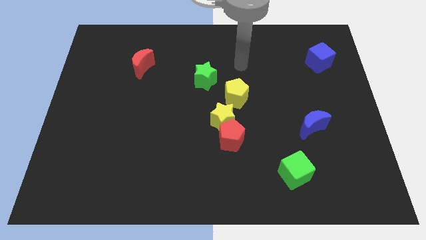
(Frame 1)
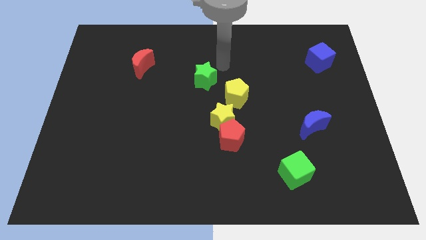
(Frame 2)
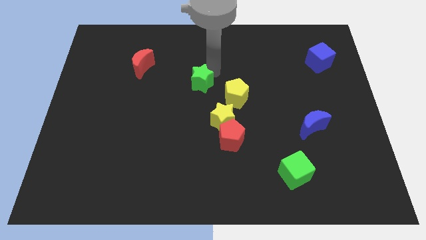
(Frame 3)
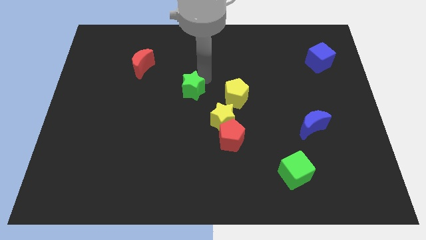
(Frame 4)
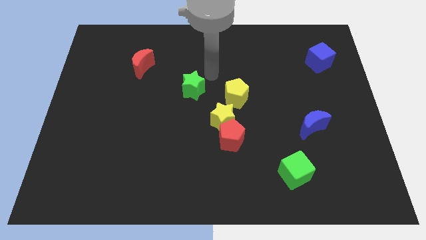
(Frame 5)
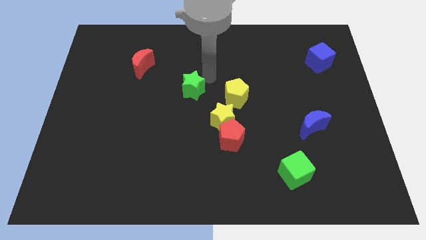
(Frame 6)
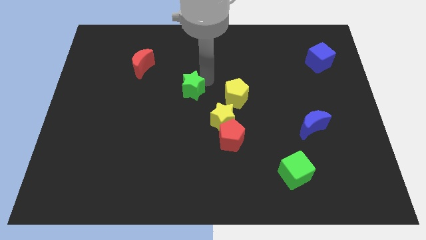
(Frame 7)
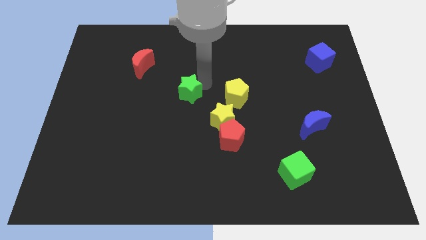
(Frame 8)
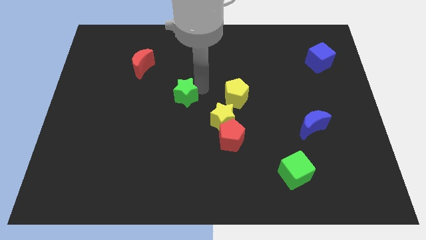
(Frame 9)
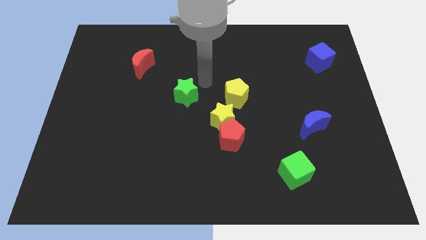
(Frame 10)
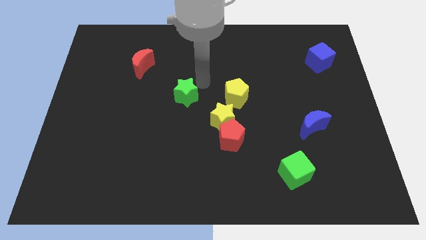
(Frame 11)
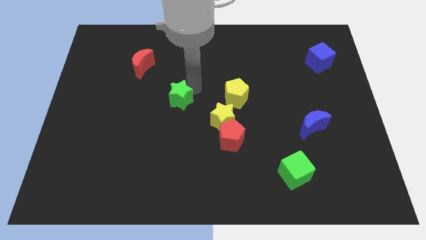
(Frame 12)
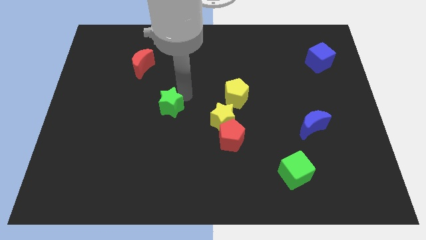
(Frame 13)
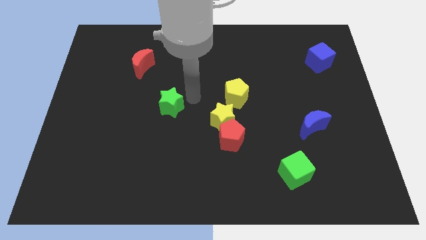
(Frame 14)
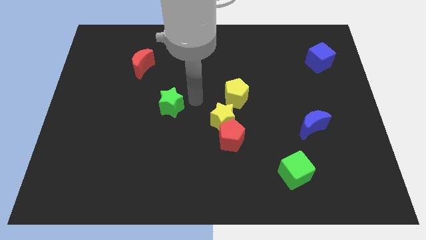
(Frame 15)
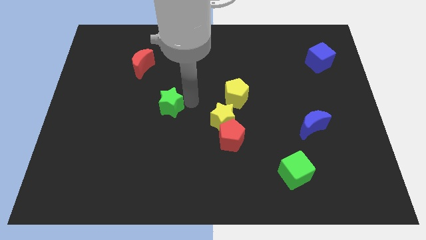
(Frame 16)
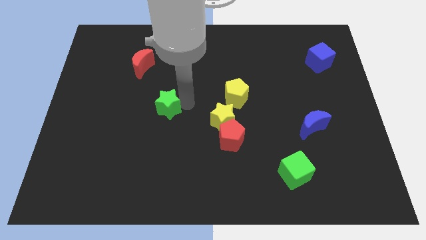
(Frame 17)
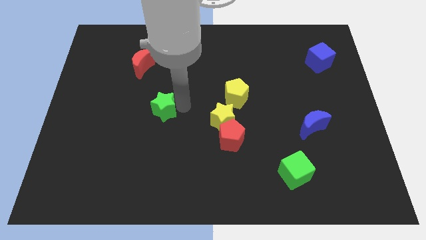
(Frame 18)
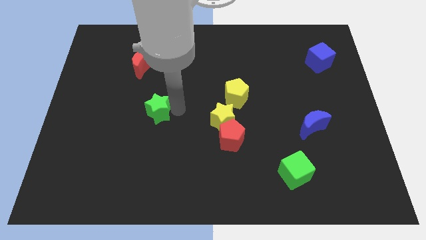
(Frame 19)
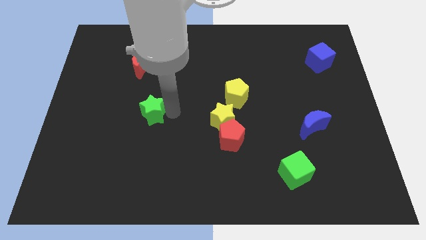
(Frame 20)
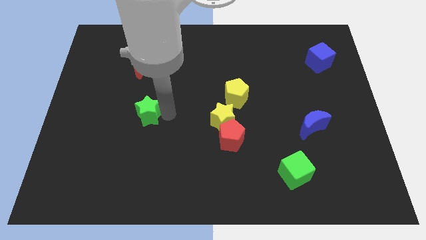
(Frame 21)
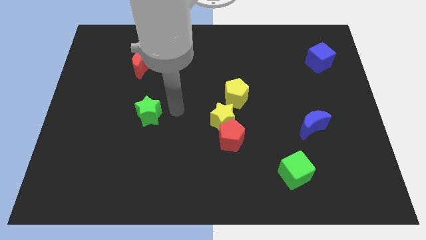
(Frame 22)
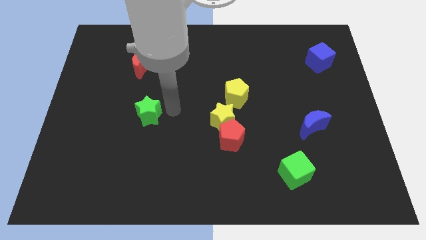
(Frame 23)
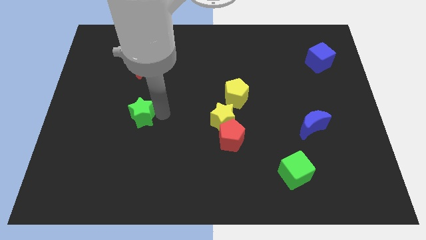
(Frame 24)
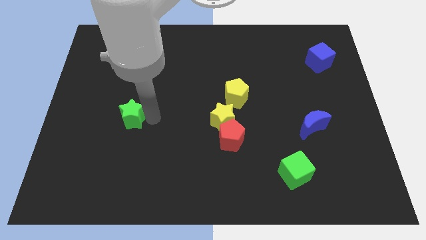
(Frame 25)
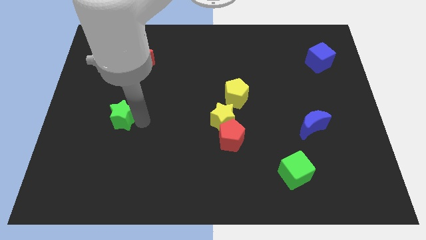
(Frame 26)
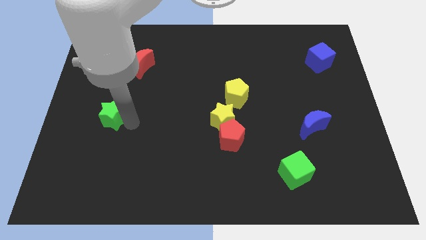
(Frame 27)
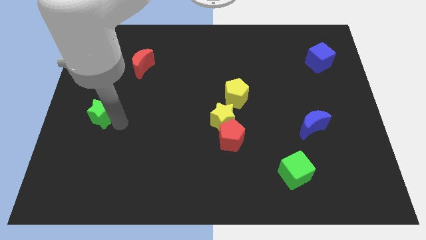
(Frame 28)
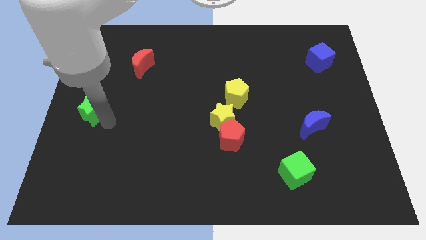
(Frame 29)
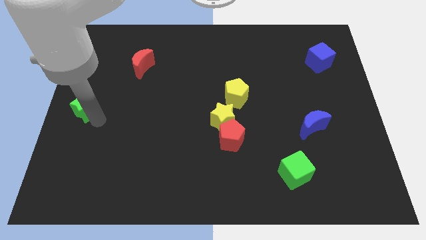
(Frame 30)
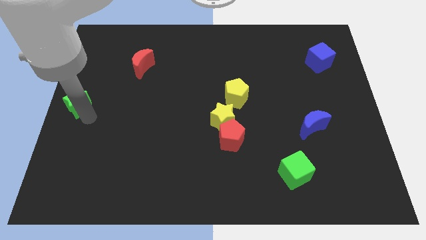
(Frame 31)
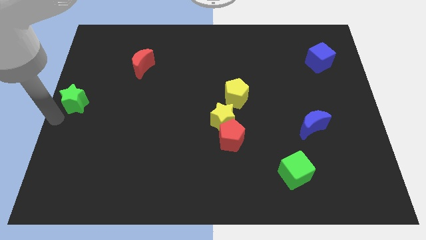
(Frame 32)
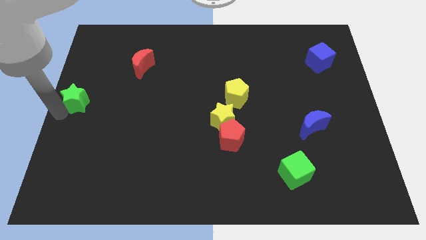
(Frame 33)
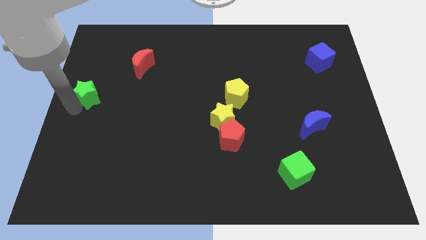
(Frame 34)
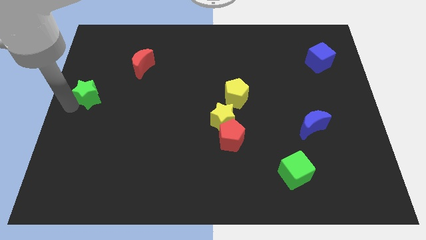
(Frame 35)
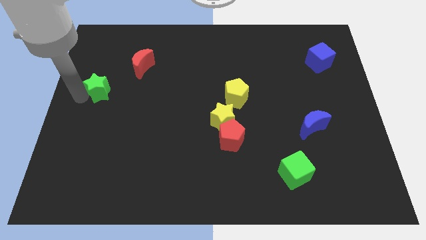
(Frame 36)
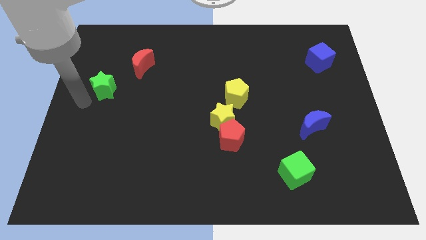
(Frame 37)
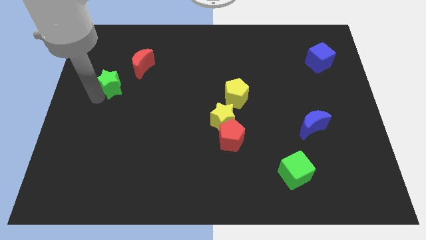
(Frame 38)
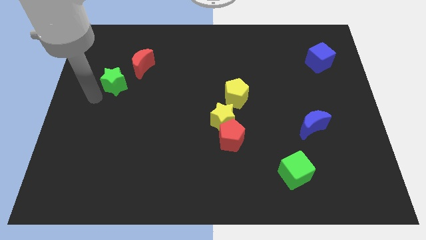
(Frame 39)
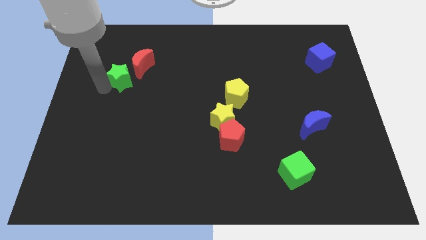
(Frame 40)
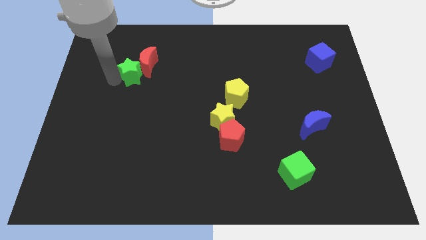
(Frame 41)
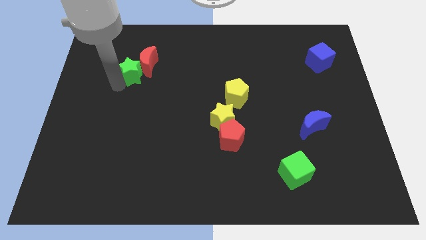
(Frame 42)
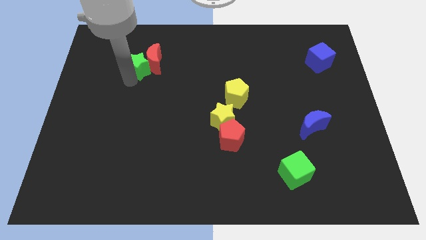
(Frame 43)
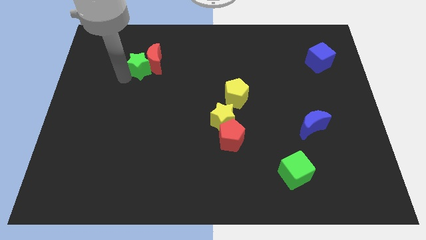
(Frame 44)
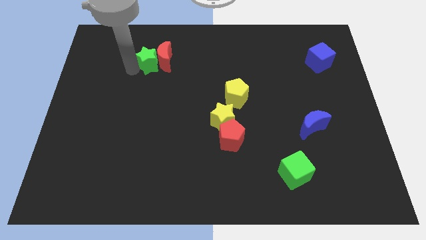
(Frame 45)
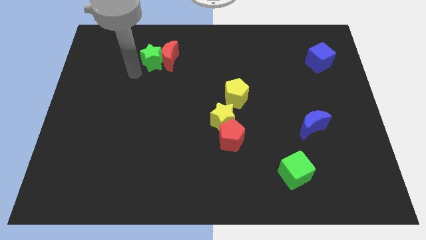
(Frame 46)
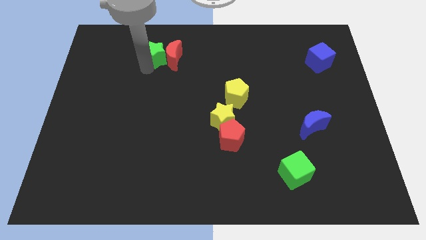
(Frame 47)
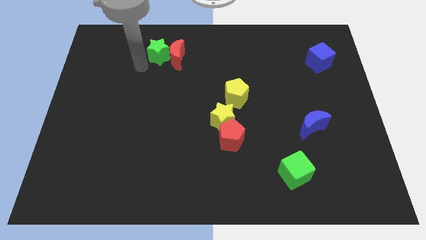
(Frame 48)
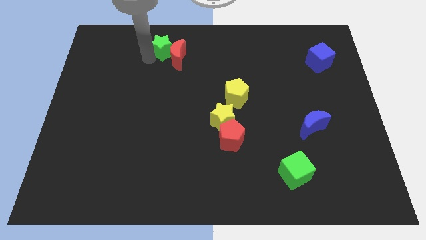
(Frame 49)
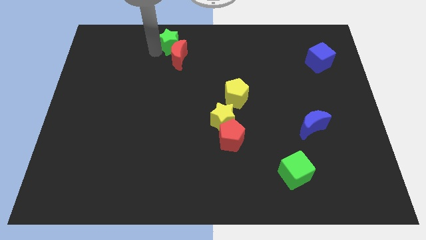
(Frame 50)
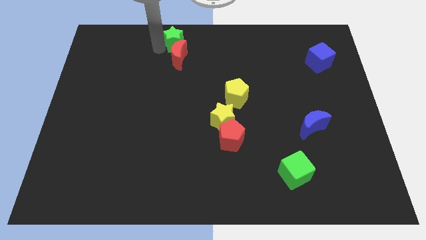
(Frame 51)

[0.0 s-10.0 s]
slide the green star to the top side

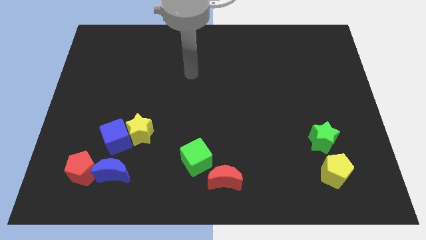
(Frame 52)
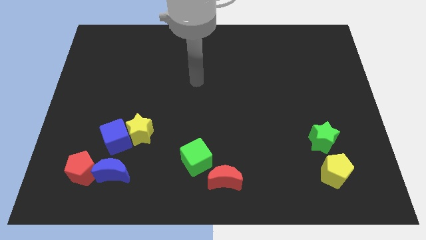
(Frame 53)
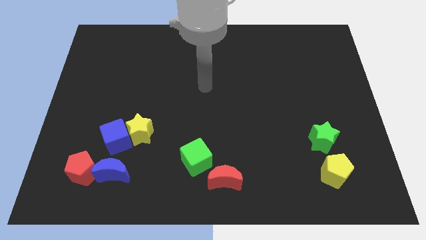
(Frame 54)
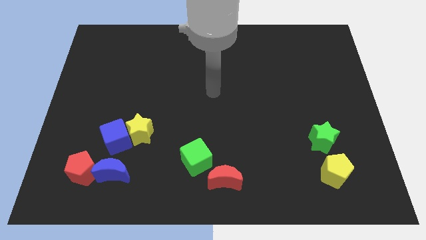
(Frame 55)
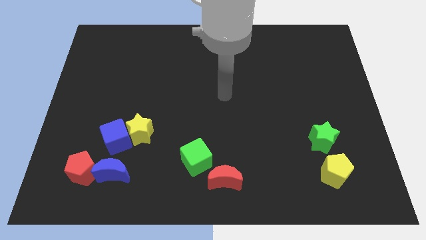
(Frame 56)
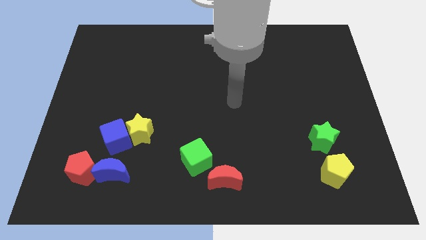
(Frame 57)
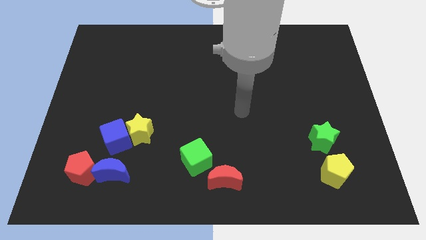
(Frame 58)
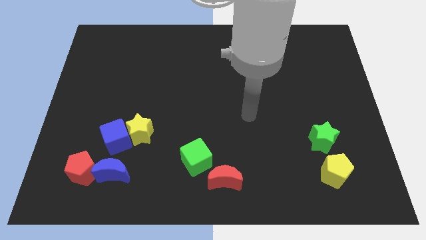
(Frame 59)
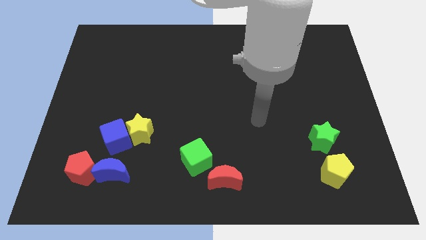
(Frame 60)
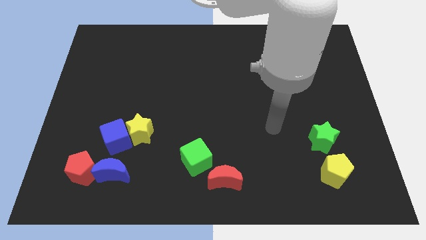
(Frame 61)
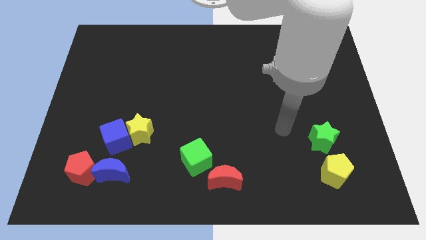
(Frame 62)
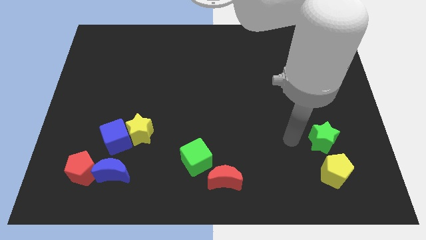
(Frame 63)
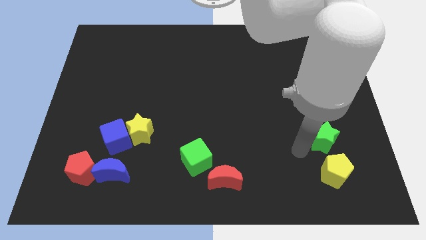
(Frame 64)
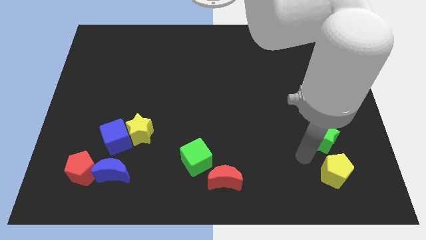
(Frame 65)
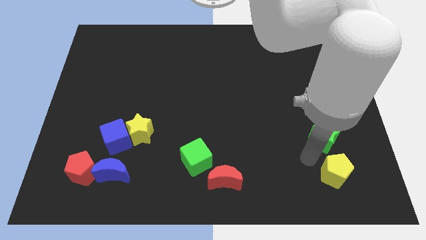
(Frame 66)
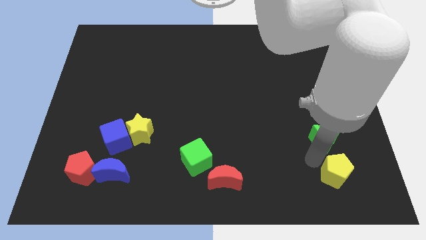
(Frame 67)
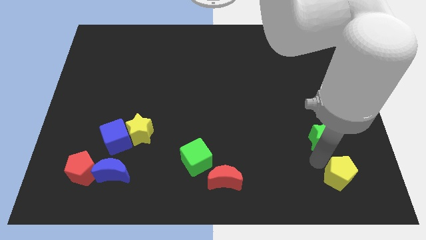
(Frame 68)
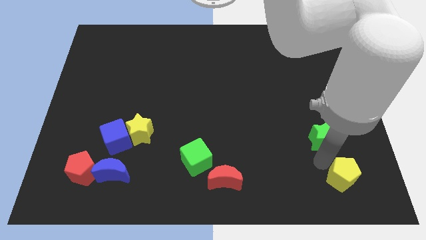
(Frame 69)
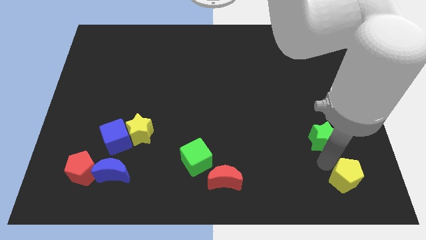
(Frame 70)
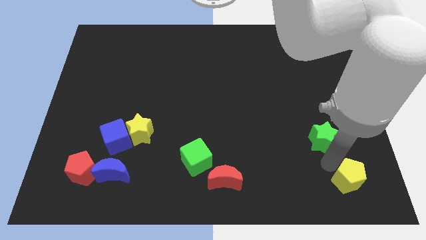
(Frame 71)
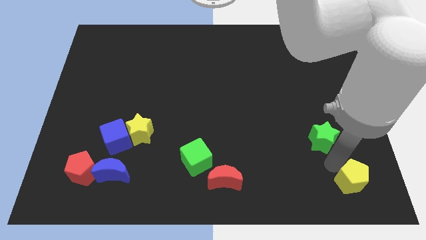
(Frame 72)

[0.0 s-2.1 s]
slide the yellow pentagon to the lower right corner
